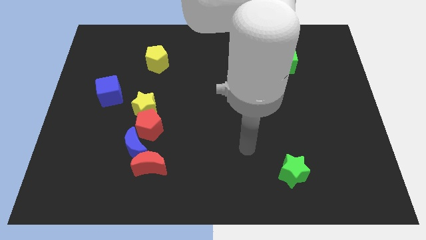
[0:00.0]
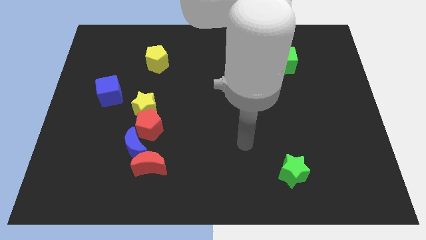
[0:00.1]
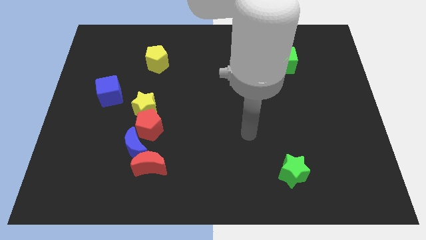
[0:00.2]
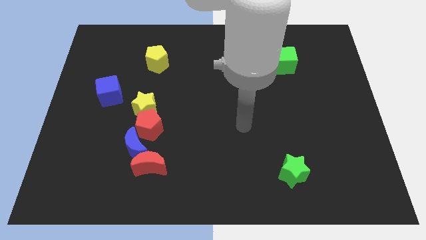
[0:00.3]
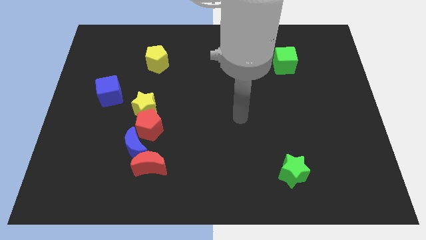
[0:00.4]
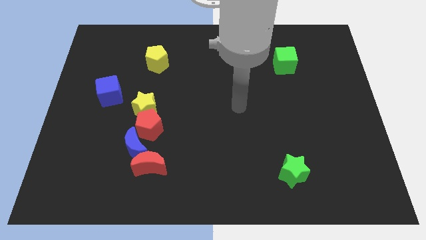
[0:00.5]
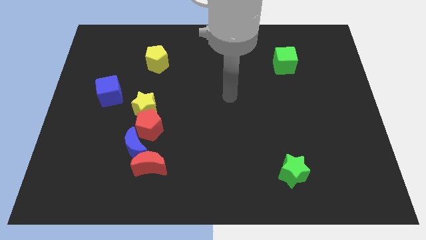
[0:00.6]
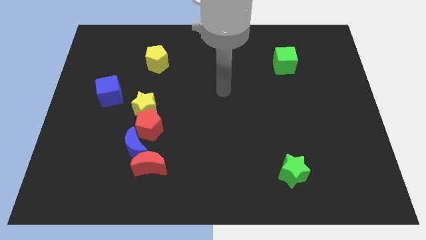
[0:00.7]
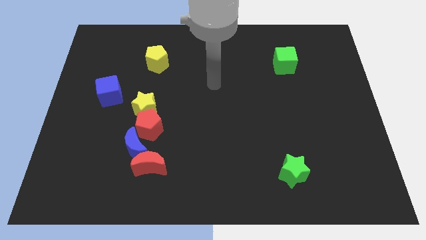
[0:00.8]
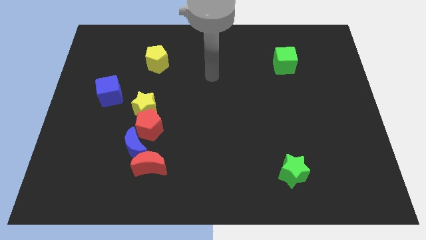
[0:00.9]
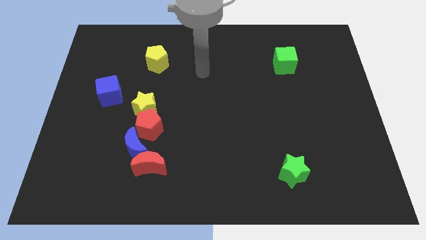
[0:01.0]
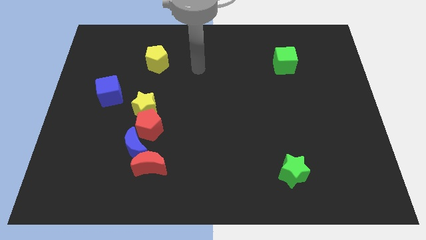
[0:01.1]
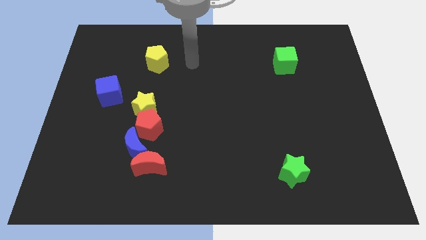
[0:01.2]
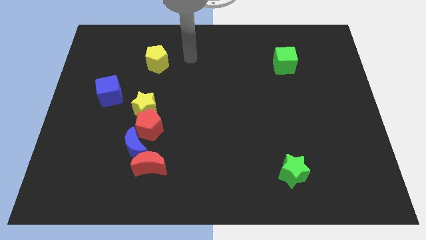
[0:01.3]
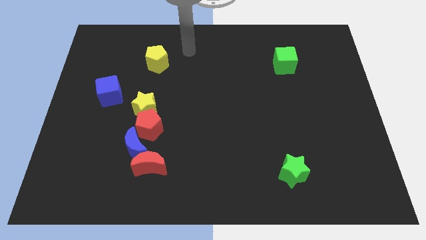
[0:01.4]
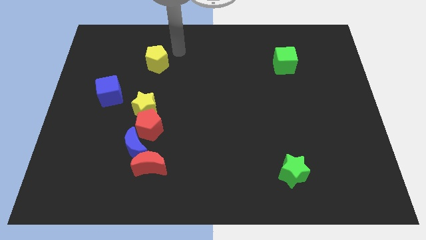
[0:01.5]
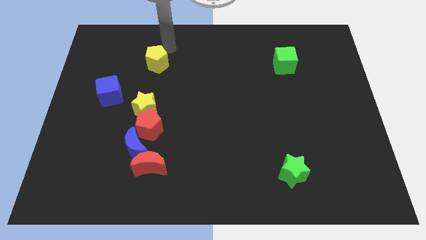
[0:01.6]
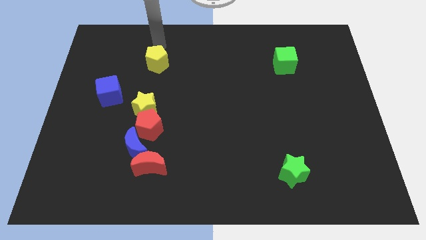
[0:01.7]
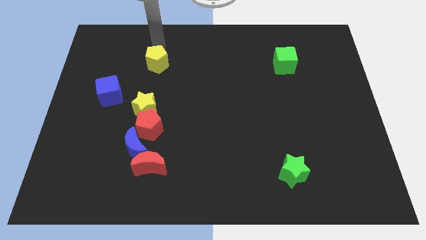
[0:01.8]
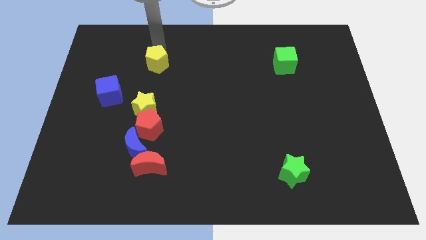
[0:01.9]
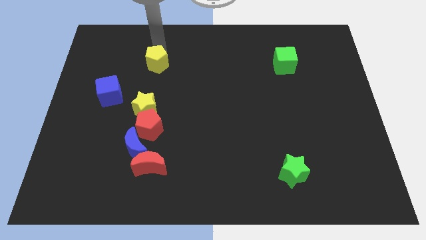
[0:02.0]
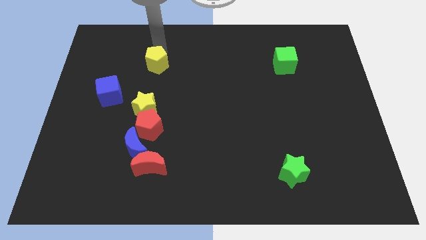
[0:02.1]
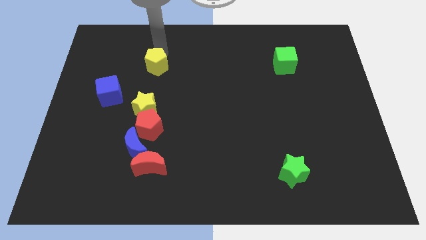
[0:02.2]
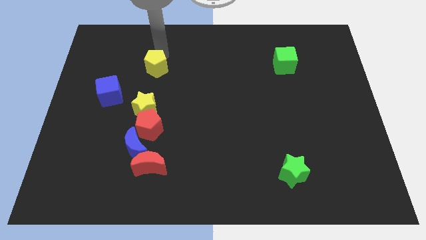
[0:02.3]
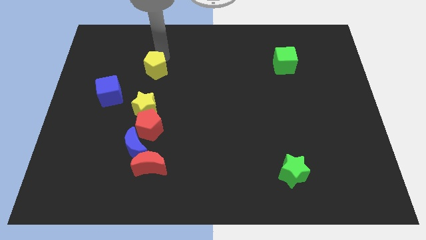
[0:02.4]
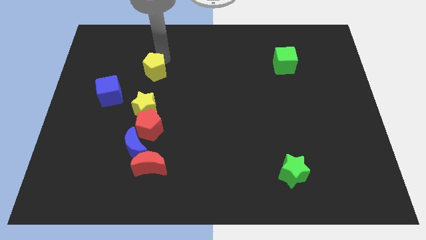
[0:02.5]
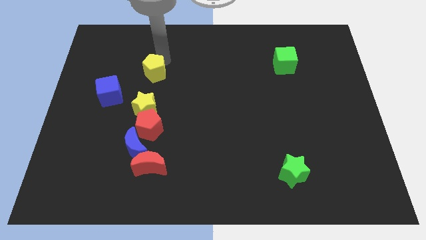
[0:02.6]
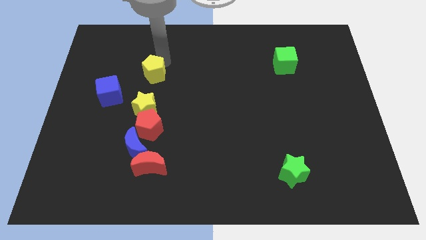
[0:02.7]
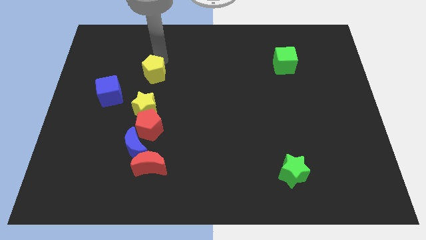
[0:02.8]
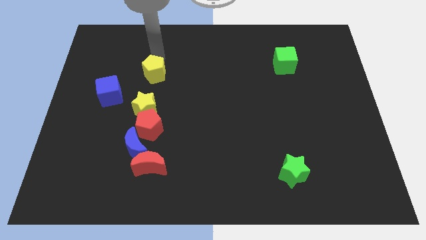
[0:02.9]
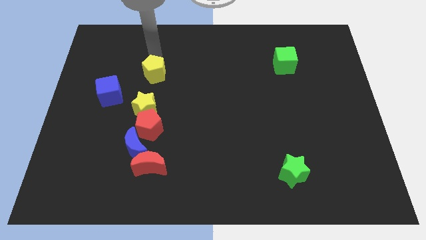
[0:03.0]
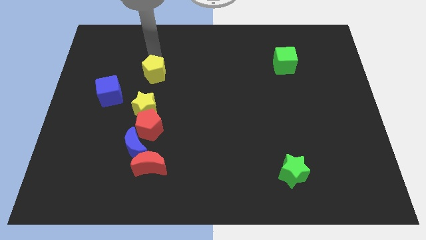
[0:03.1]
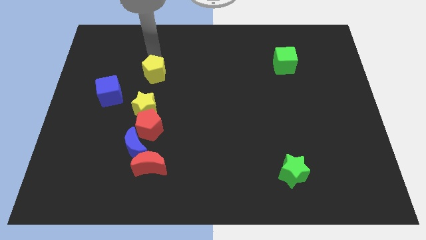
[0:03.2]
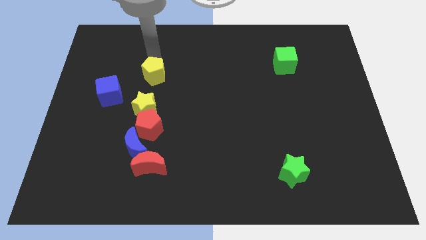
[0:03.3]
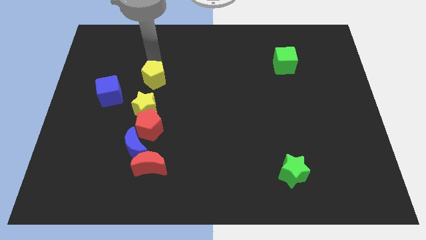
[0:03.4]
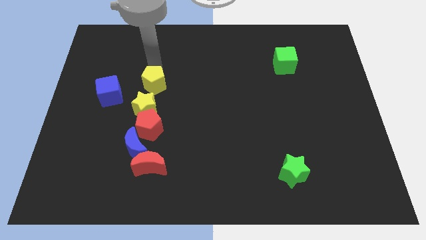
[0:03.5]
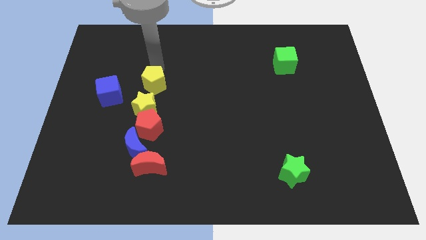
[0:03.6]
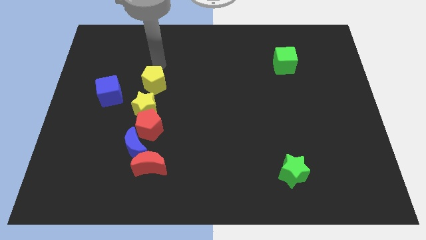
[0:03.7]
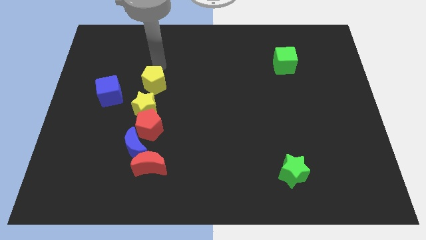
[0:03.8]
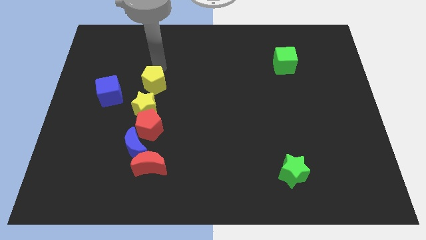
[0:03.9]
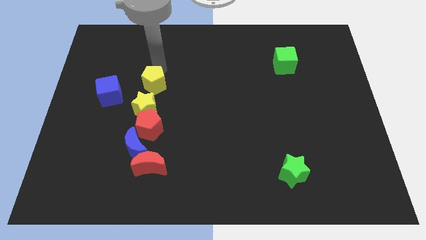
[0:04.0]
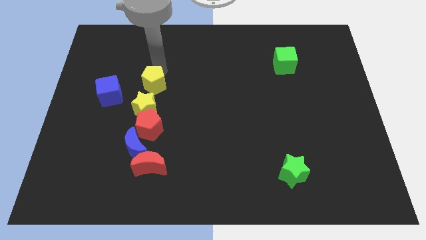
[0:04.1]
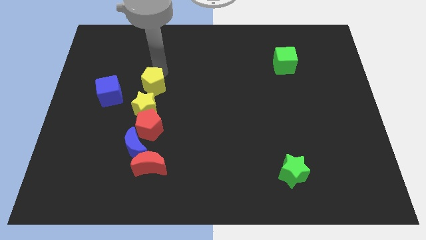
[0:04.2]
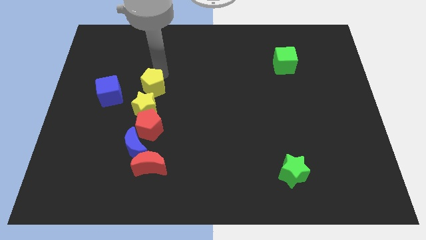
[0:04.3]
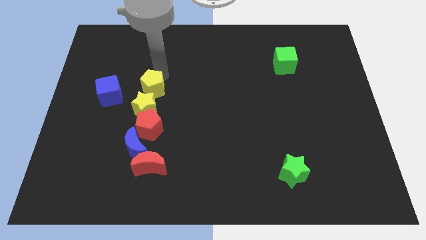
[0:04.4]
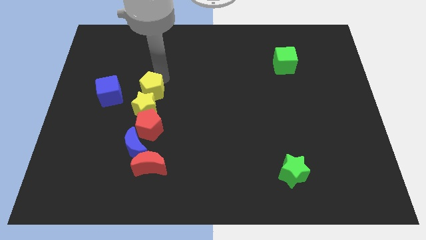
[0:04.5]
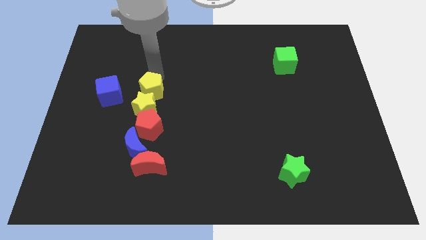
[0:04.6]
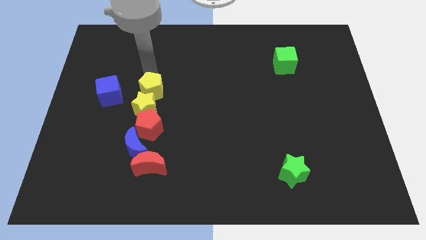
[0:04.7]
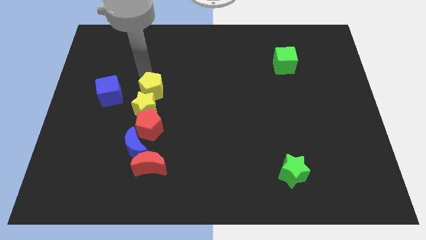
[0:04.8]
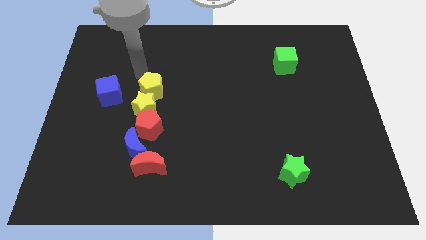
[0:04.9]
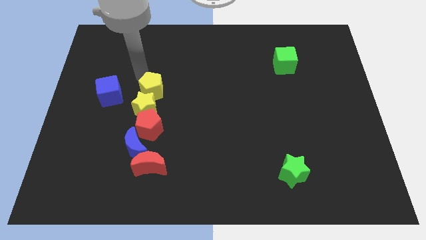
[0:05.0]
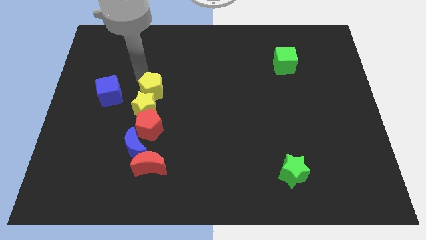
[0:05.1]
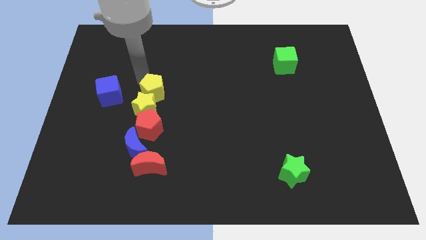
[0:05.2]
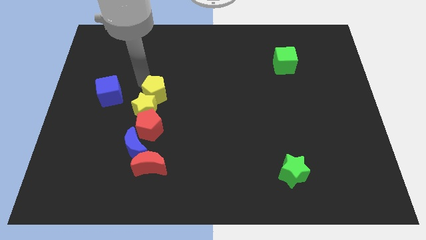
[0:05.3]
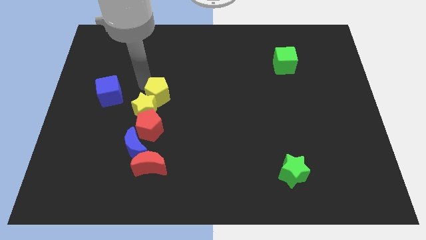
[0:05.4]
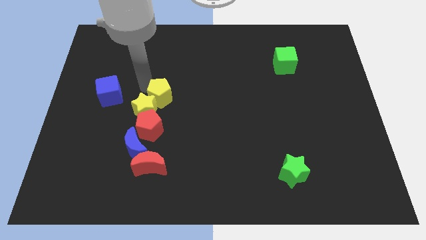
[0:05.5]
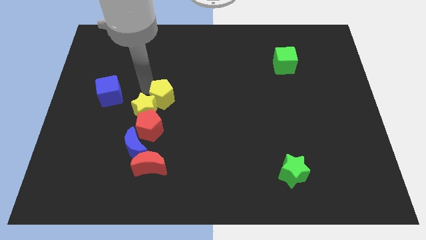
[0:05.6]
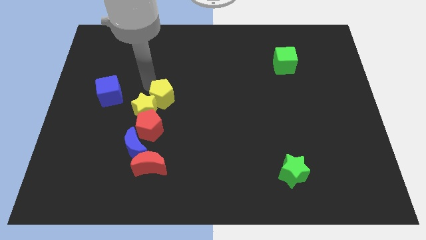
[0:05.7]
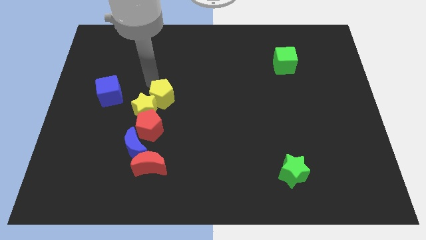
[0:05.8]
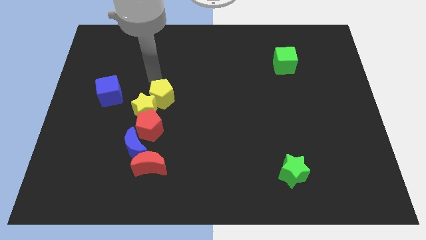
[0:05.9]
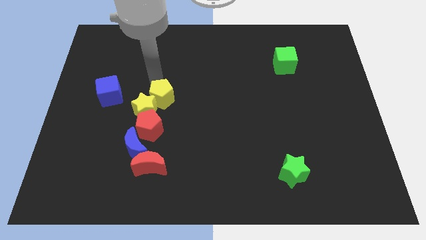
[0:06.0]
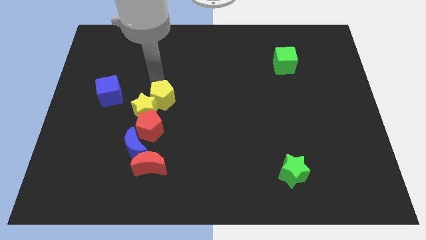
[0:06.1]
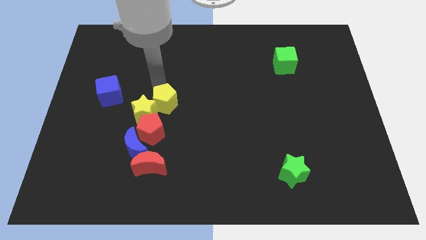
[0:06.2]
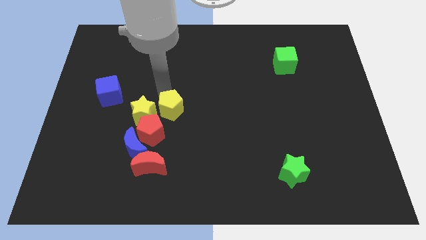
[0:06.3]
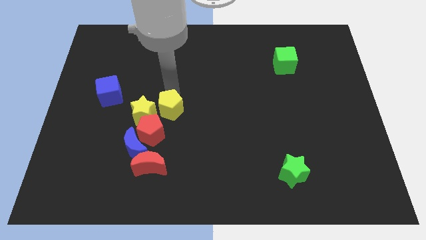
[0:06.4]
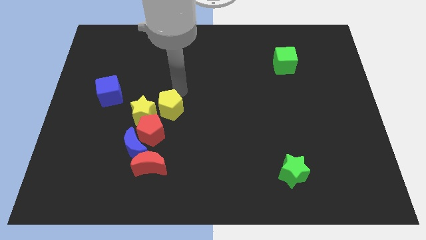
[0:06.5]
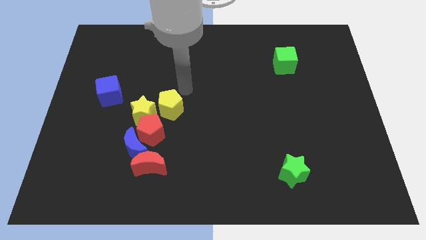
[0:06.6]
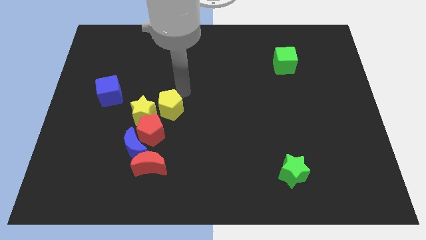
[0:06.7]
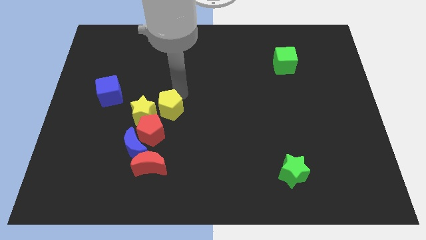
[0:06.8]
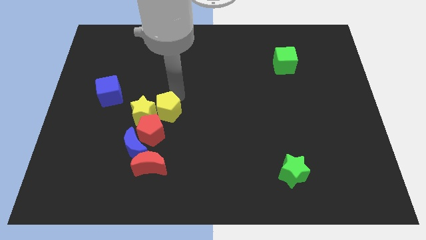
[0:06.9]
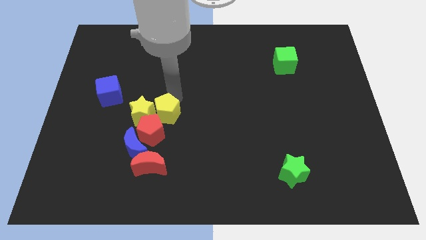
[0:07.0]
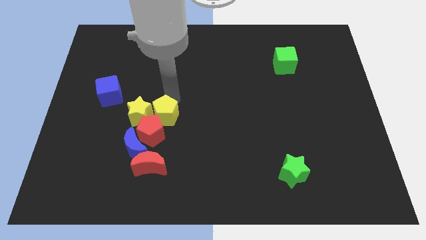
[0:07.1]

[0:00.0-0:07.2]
slide the yellow pentagon to the red pentagon

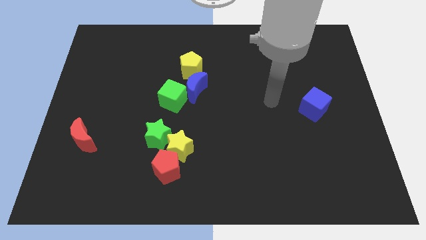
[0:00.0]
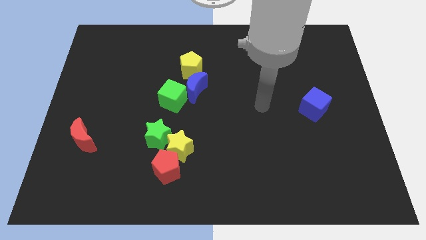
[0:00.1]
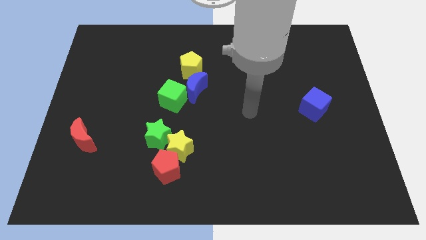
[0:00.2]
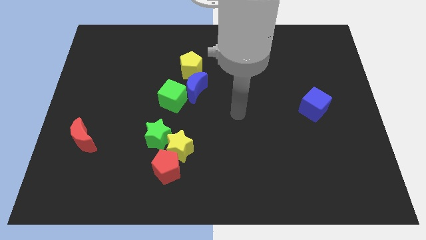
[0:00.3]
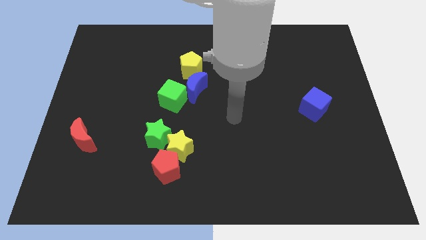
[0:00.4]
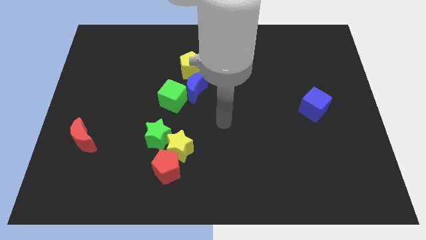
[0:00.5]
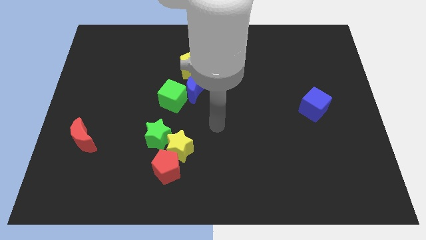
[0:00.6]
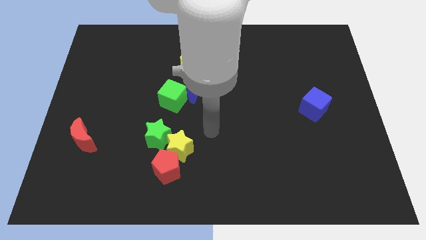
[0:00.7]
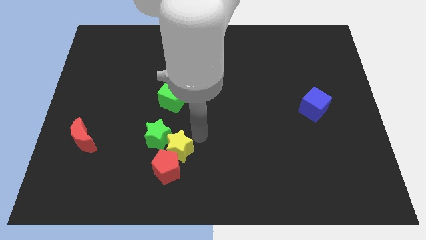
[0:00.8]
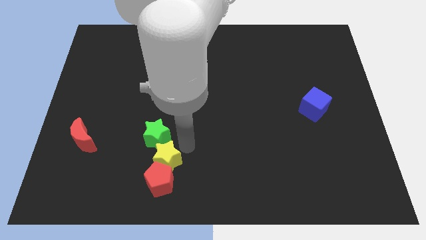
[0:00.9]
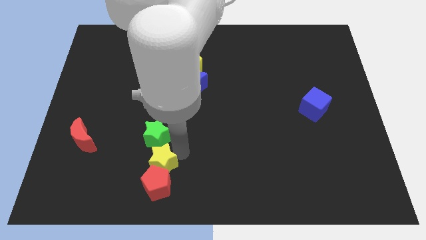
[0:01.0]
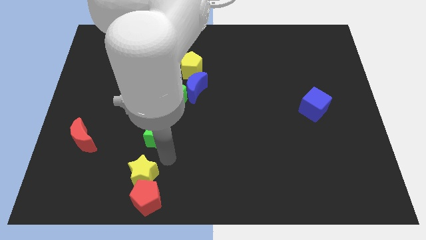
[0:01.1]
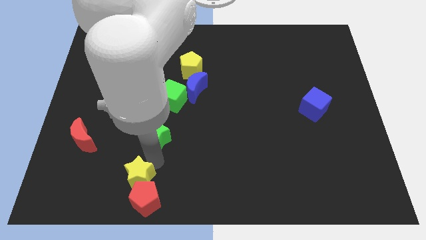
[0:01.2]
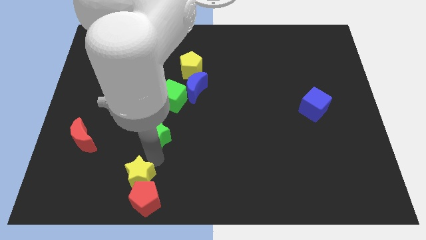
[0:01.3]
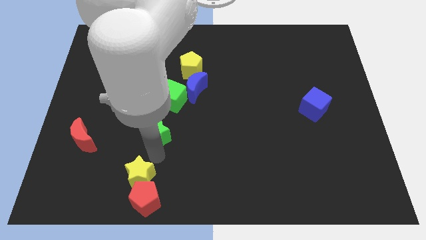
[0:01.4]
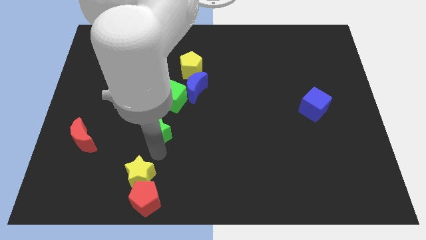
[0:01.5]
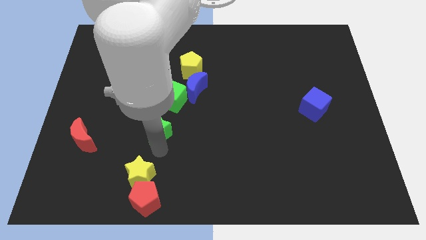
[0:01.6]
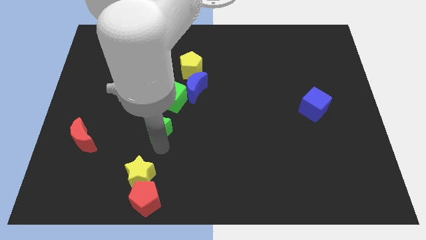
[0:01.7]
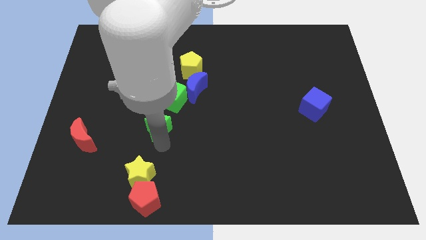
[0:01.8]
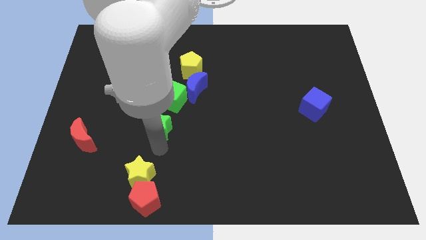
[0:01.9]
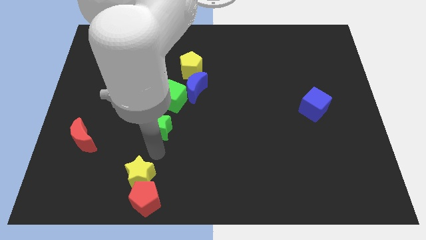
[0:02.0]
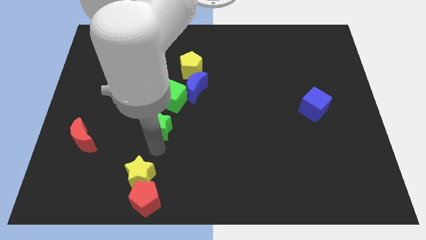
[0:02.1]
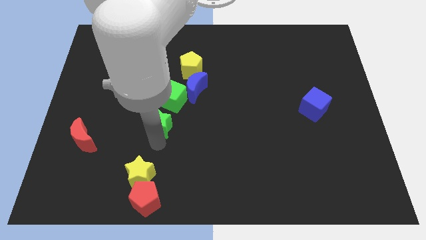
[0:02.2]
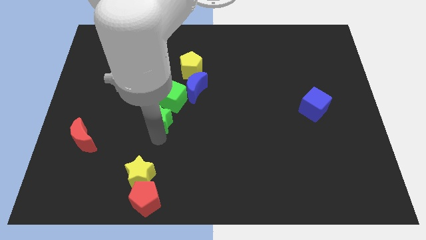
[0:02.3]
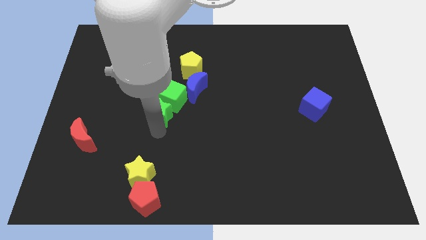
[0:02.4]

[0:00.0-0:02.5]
move the green star close to the green cube
